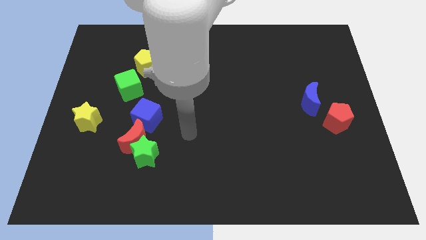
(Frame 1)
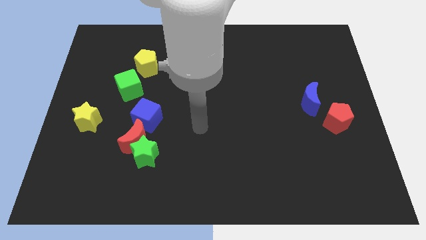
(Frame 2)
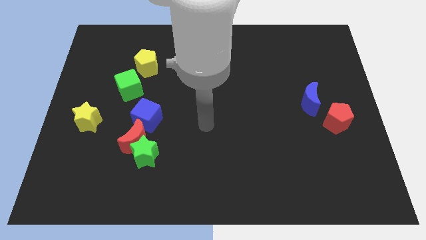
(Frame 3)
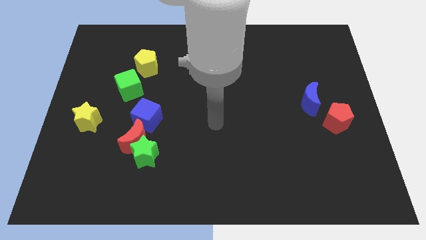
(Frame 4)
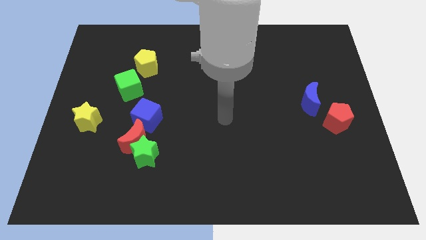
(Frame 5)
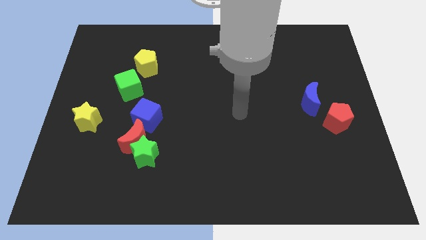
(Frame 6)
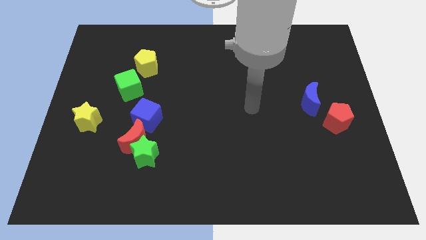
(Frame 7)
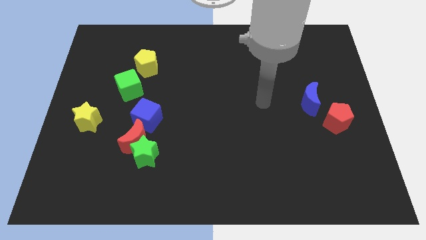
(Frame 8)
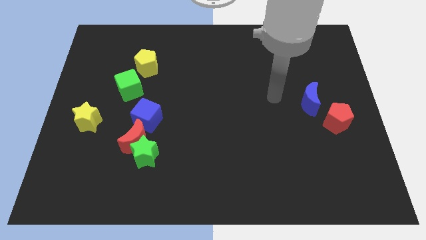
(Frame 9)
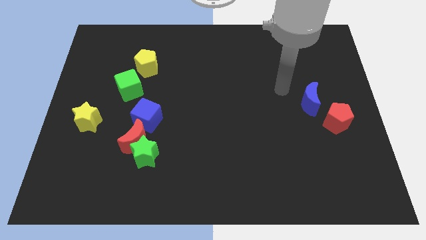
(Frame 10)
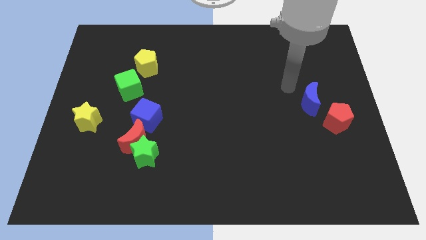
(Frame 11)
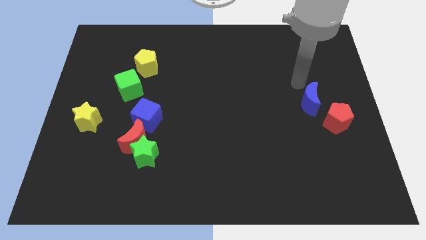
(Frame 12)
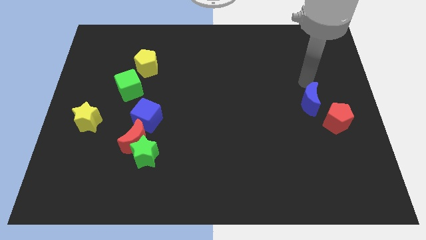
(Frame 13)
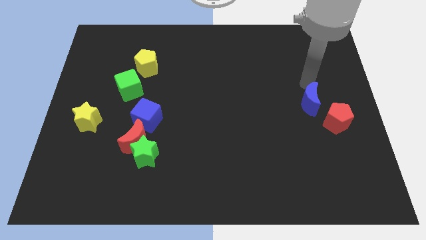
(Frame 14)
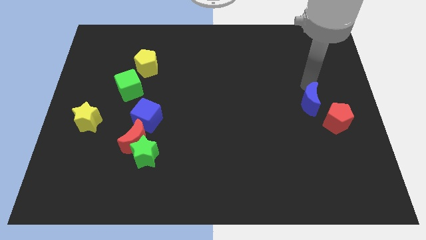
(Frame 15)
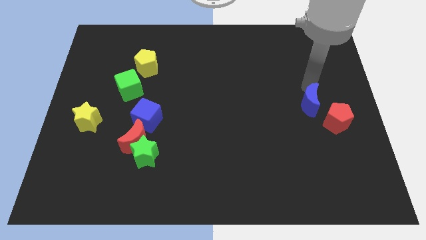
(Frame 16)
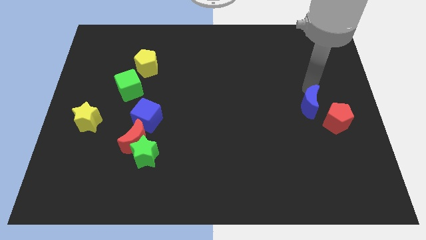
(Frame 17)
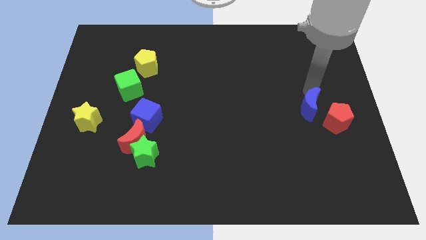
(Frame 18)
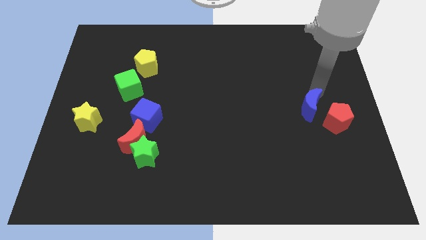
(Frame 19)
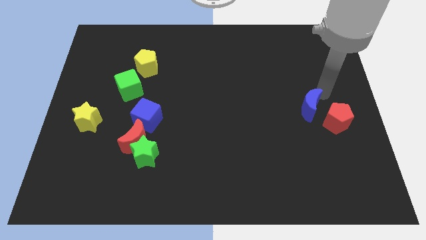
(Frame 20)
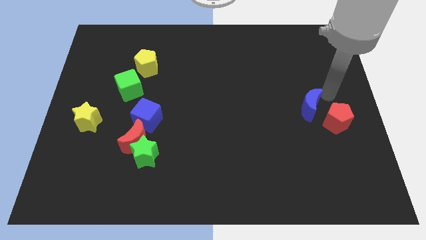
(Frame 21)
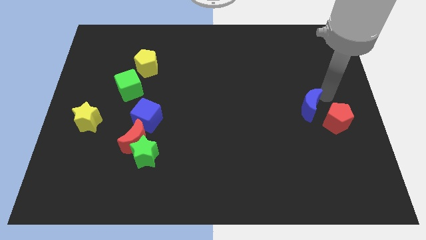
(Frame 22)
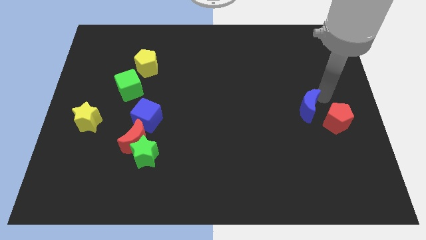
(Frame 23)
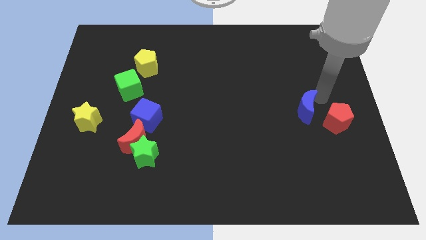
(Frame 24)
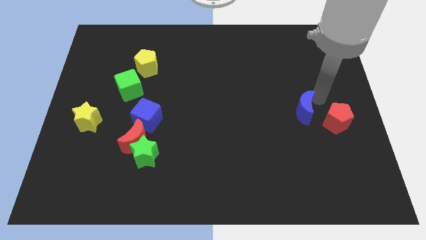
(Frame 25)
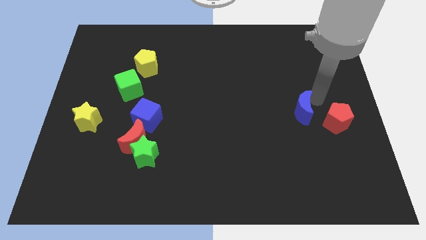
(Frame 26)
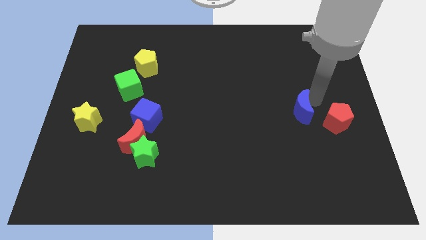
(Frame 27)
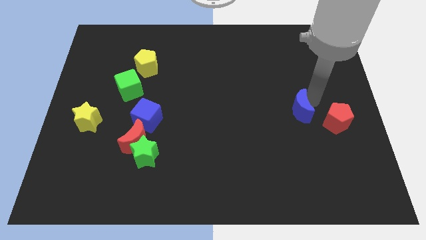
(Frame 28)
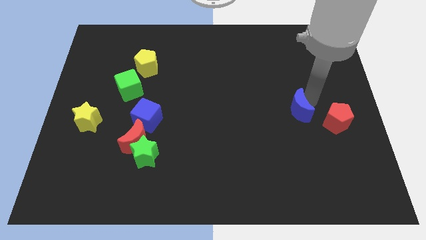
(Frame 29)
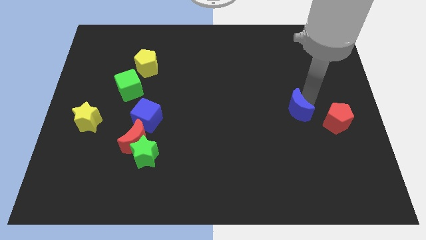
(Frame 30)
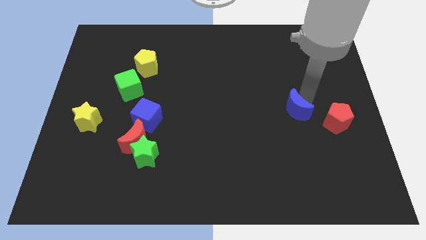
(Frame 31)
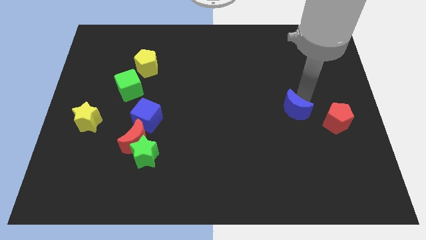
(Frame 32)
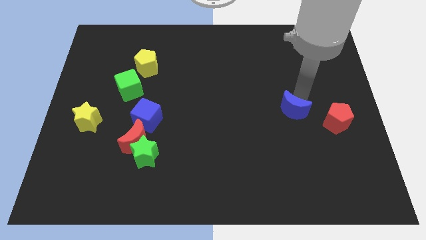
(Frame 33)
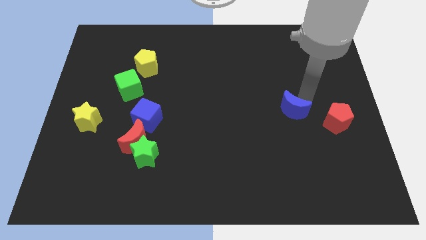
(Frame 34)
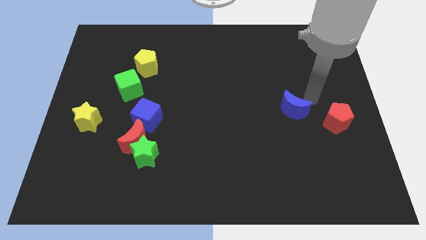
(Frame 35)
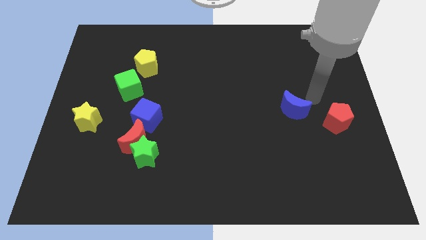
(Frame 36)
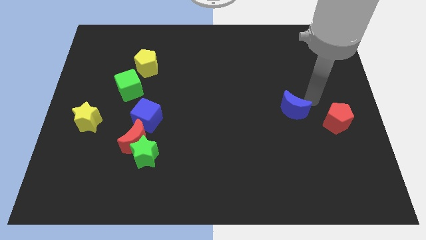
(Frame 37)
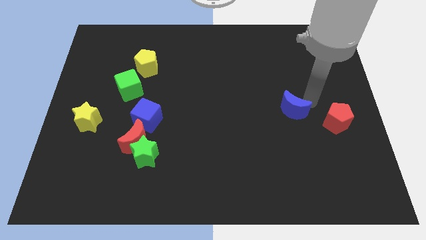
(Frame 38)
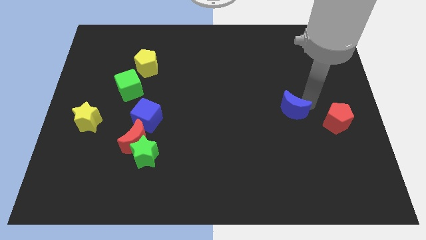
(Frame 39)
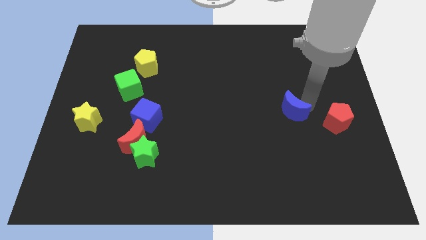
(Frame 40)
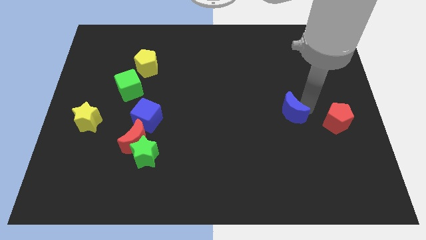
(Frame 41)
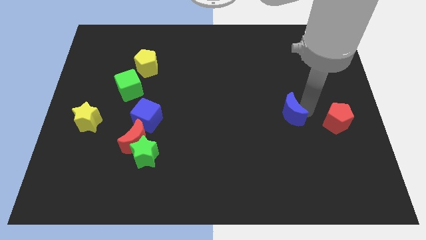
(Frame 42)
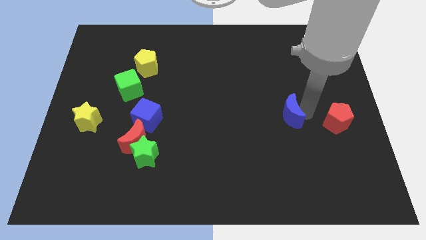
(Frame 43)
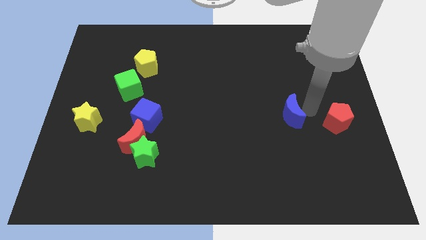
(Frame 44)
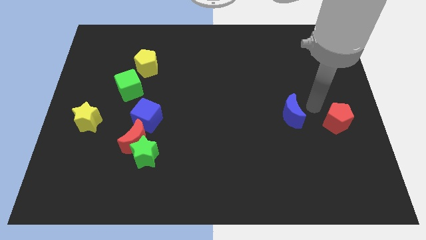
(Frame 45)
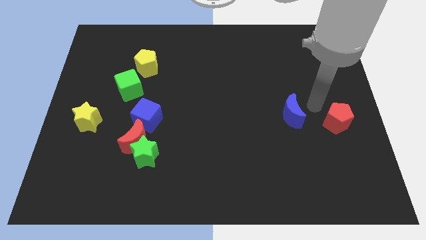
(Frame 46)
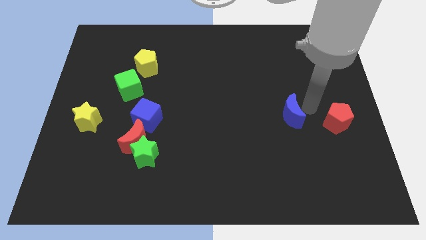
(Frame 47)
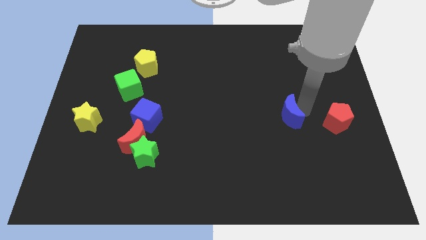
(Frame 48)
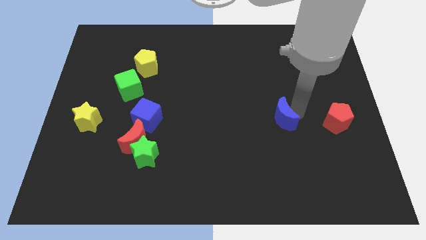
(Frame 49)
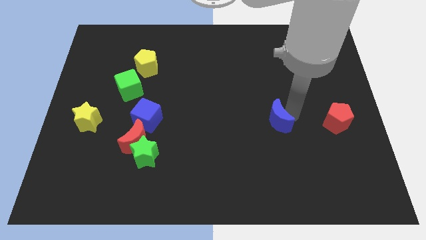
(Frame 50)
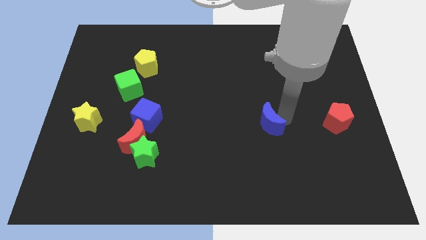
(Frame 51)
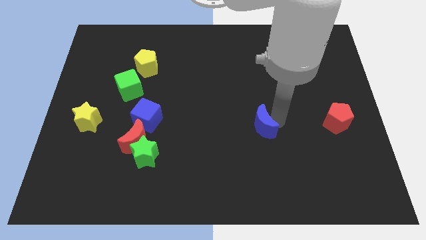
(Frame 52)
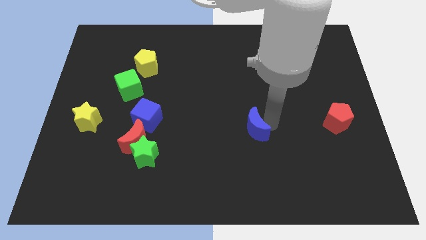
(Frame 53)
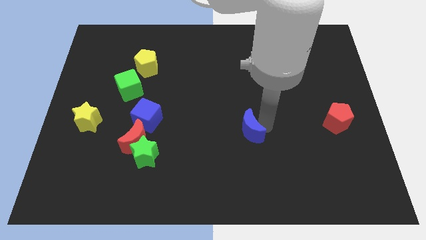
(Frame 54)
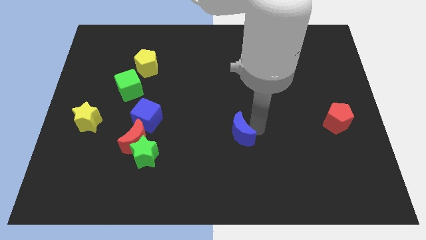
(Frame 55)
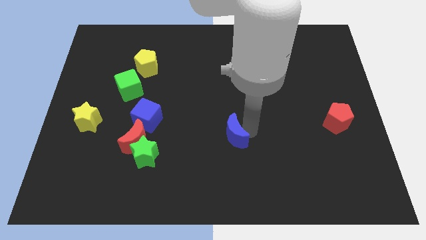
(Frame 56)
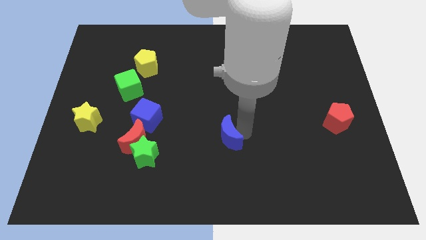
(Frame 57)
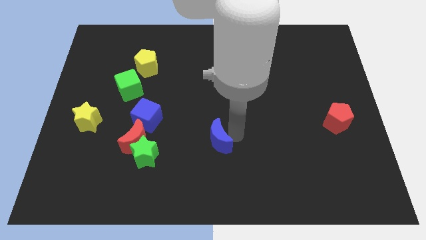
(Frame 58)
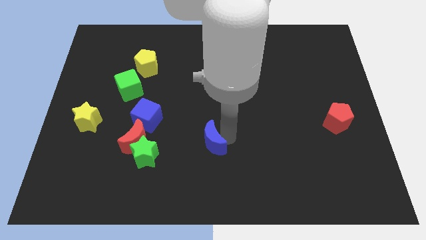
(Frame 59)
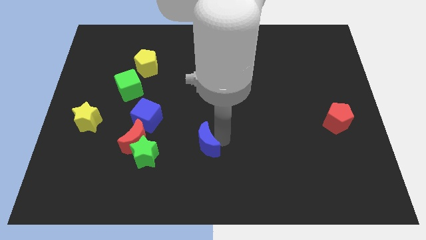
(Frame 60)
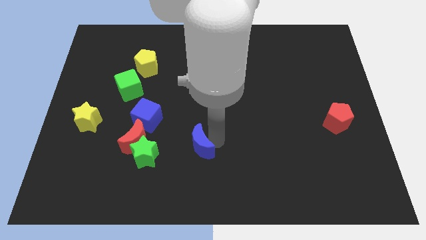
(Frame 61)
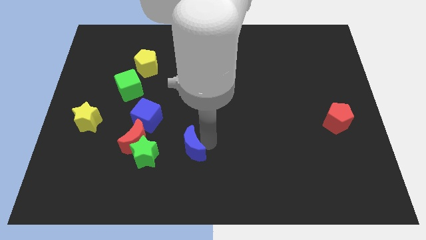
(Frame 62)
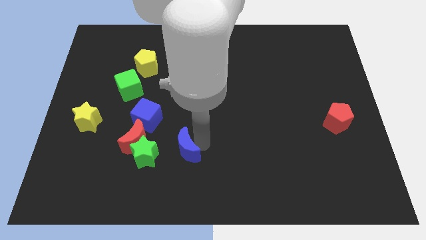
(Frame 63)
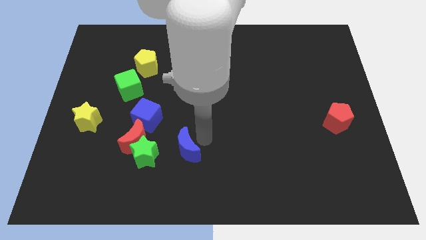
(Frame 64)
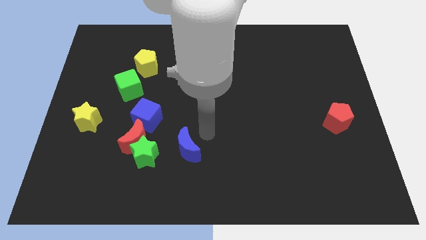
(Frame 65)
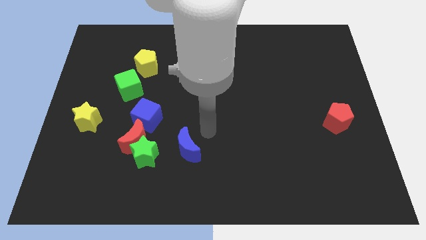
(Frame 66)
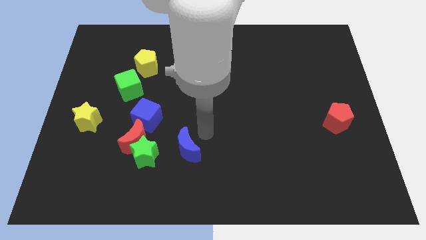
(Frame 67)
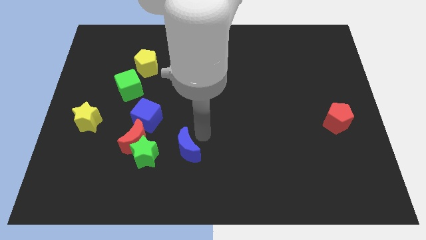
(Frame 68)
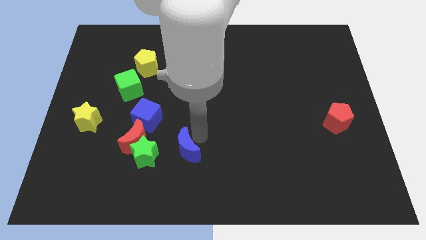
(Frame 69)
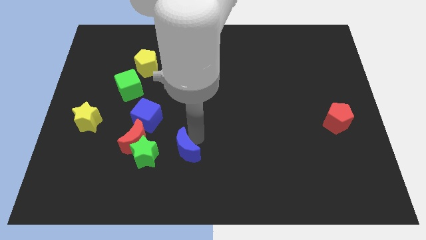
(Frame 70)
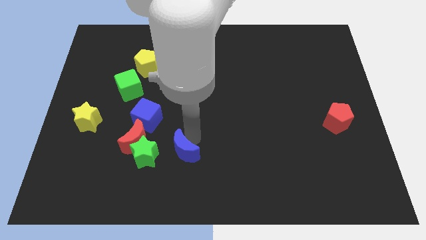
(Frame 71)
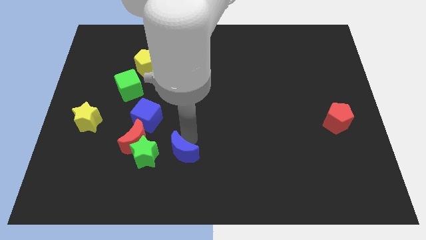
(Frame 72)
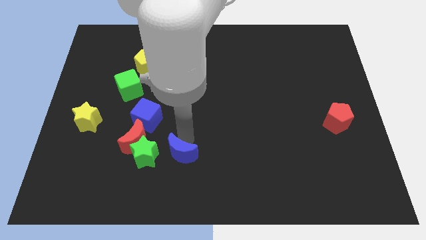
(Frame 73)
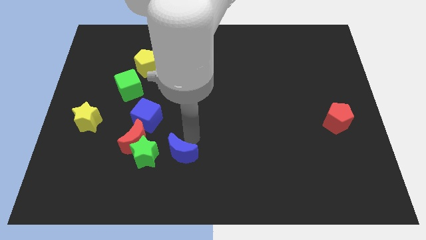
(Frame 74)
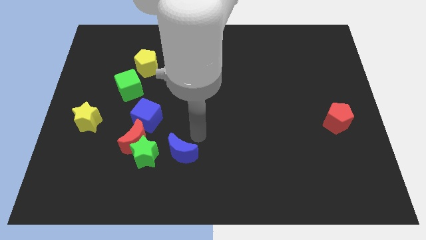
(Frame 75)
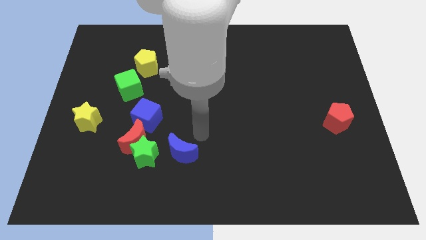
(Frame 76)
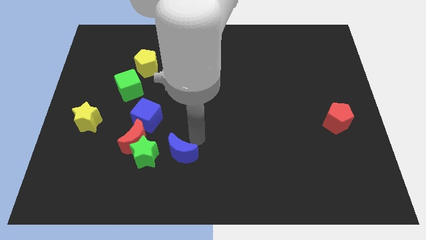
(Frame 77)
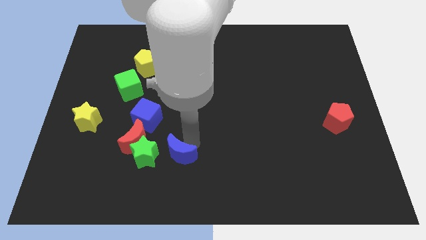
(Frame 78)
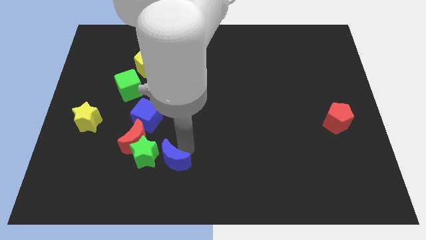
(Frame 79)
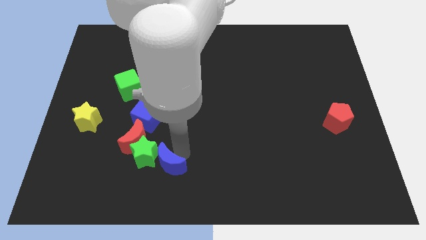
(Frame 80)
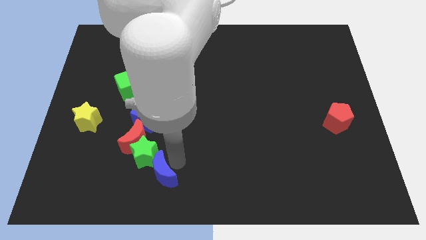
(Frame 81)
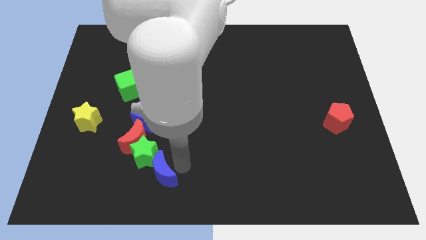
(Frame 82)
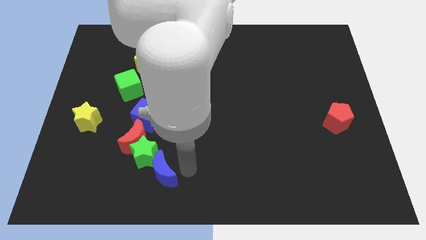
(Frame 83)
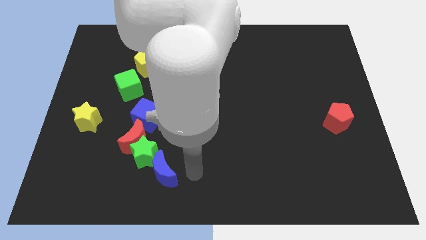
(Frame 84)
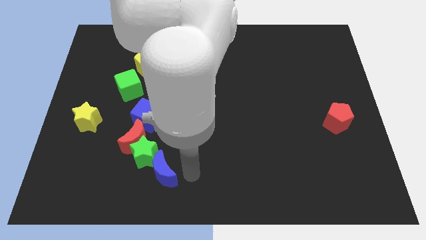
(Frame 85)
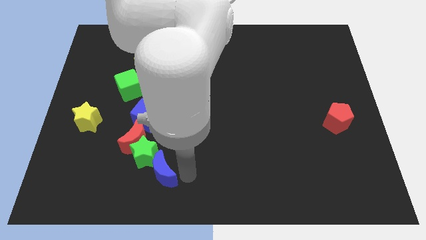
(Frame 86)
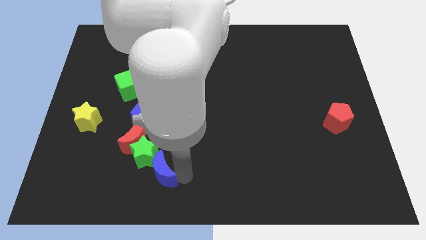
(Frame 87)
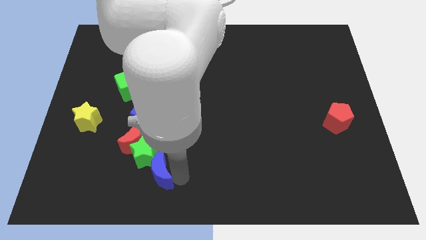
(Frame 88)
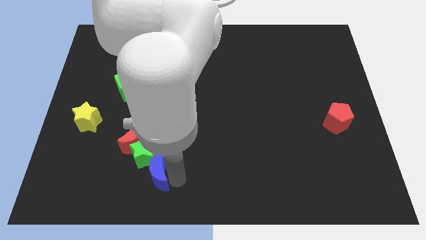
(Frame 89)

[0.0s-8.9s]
slide the blue moon below the blue cube
